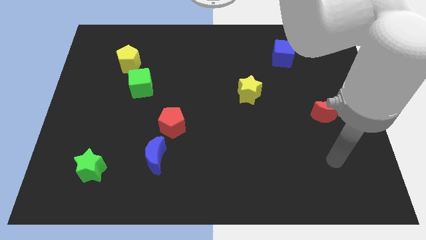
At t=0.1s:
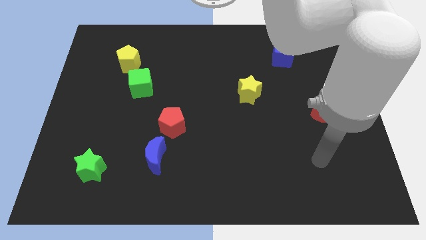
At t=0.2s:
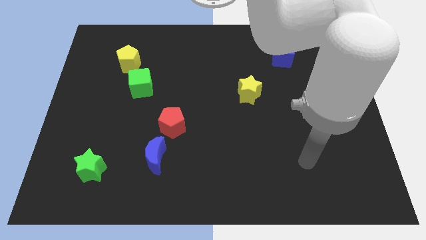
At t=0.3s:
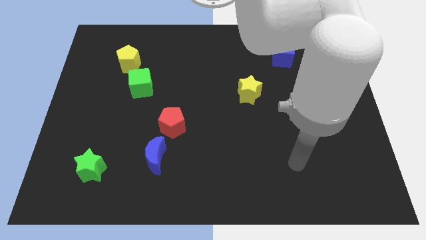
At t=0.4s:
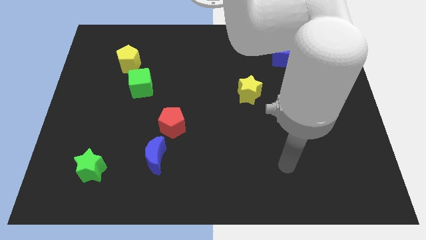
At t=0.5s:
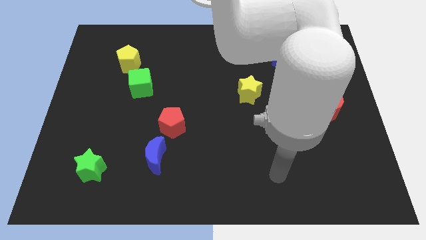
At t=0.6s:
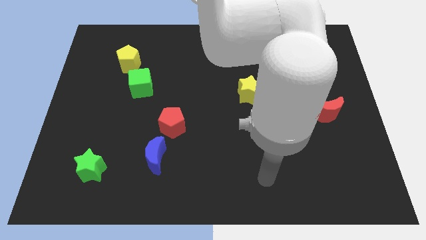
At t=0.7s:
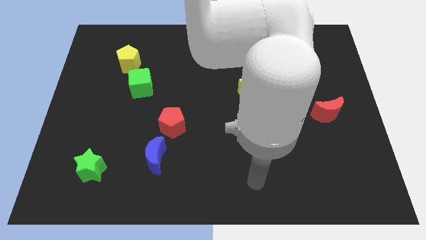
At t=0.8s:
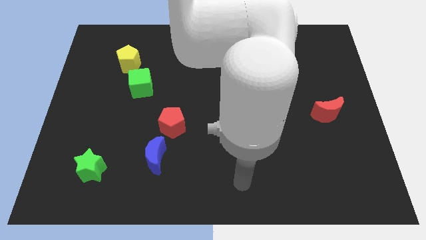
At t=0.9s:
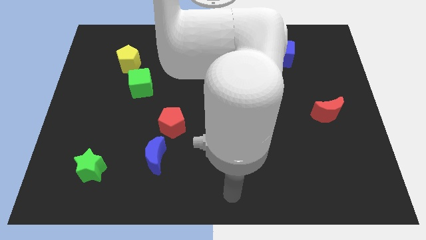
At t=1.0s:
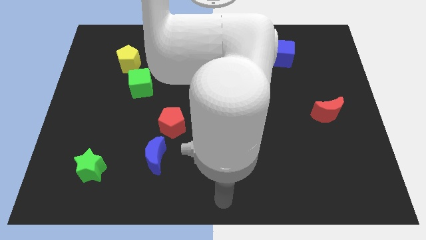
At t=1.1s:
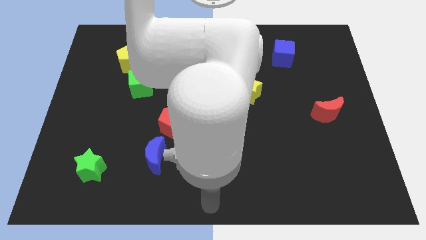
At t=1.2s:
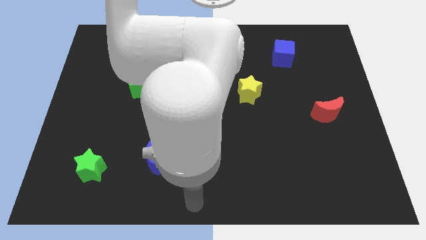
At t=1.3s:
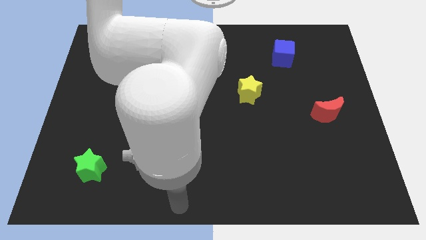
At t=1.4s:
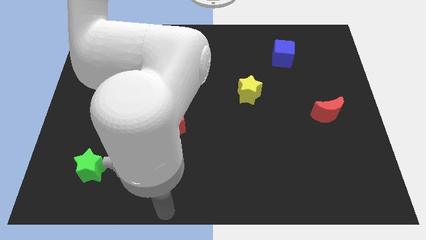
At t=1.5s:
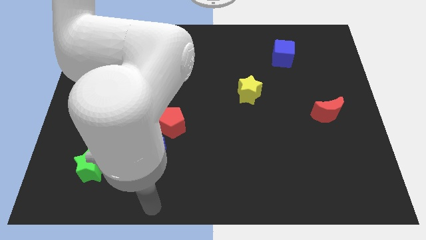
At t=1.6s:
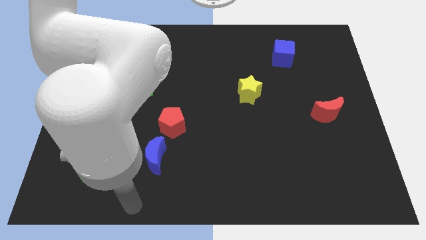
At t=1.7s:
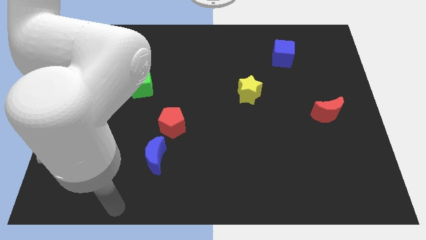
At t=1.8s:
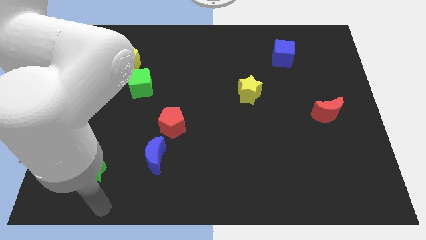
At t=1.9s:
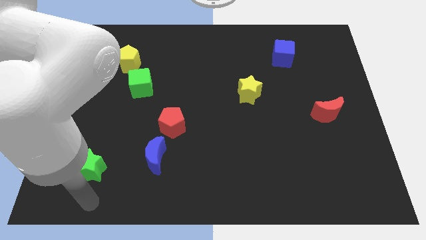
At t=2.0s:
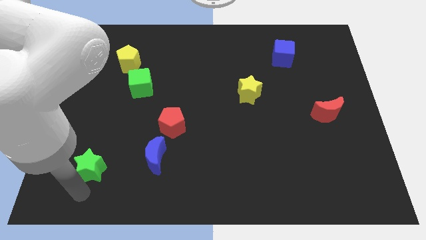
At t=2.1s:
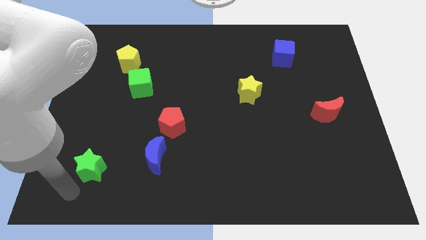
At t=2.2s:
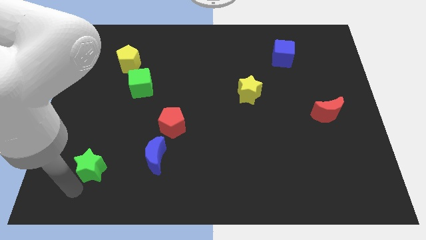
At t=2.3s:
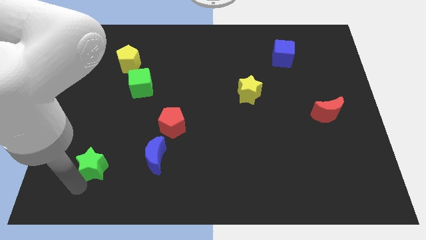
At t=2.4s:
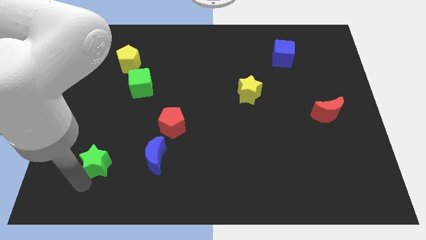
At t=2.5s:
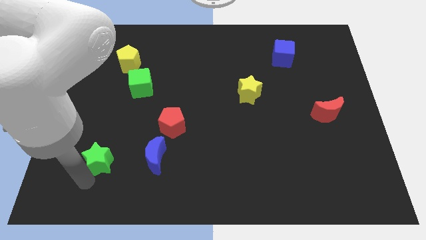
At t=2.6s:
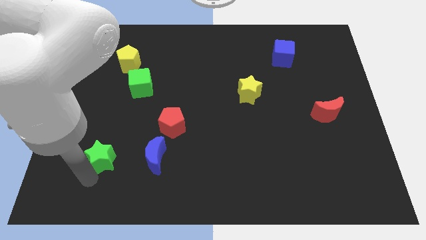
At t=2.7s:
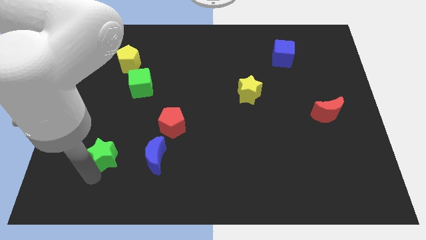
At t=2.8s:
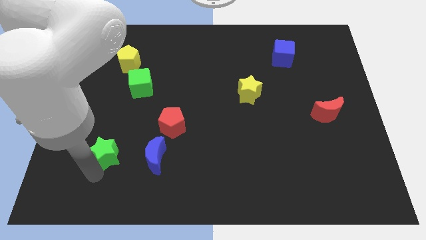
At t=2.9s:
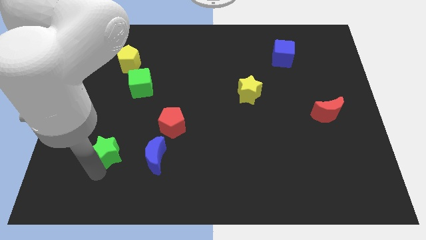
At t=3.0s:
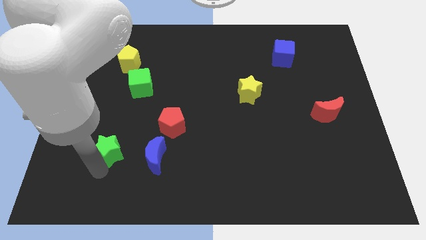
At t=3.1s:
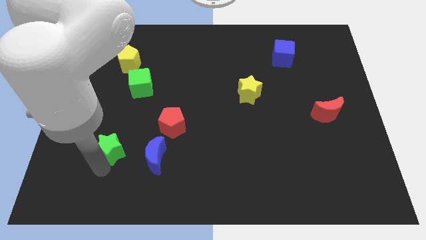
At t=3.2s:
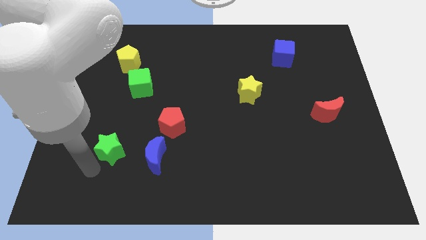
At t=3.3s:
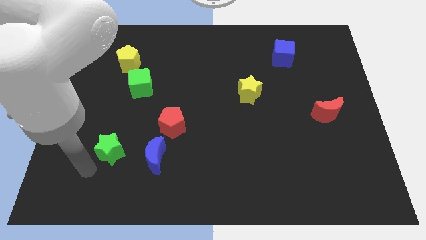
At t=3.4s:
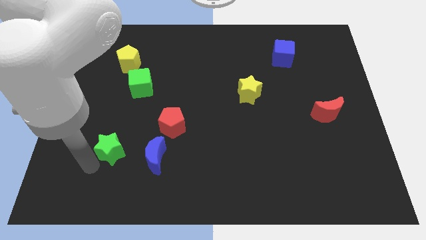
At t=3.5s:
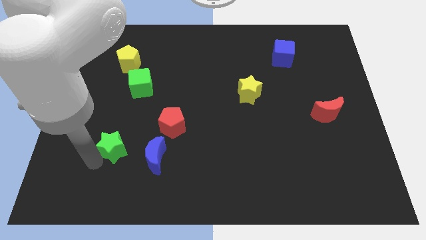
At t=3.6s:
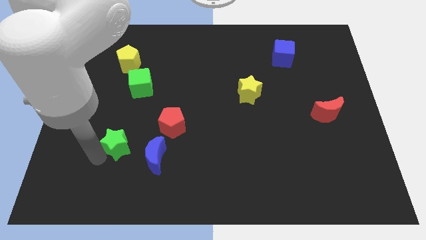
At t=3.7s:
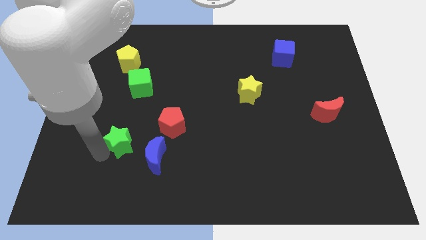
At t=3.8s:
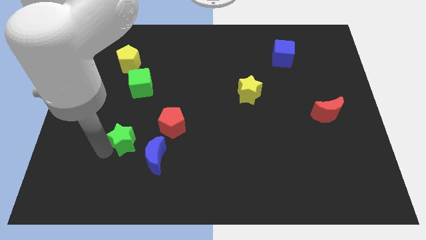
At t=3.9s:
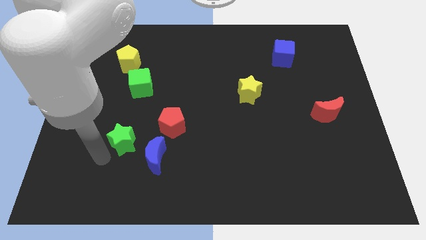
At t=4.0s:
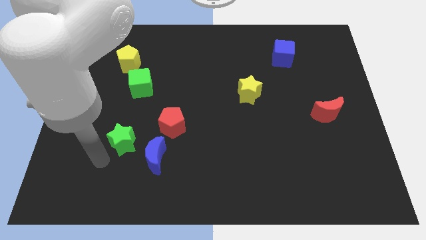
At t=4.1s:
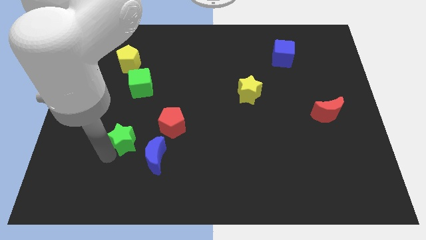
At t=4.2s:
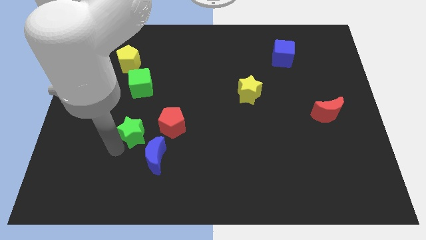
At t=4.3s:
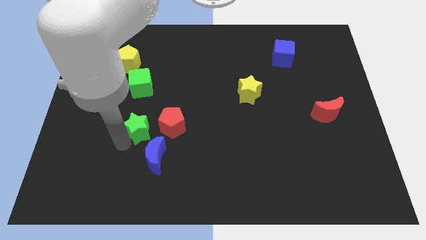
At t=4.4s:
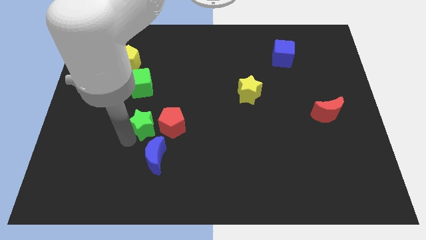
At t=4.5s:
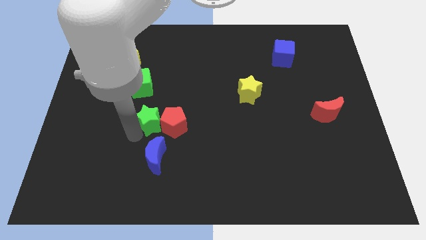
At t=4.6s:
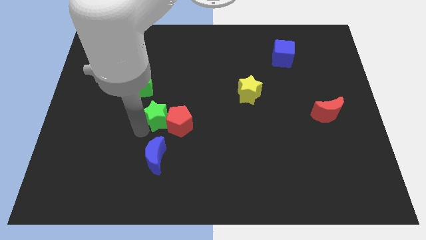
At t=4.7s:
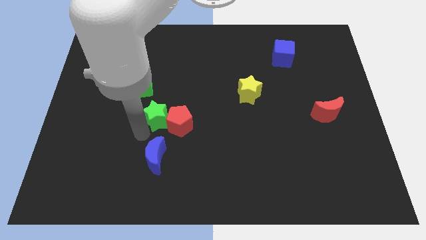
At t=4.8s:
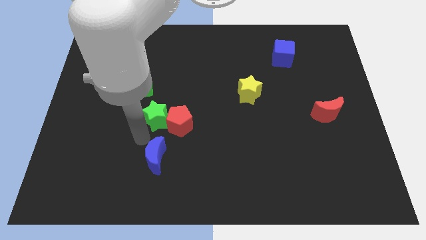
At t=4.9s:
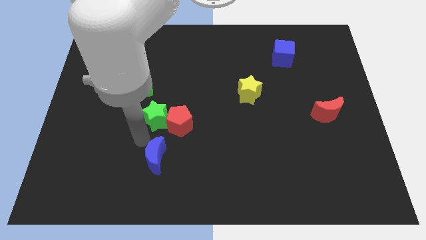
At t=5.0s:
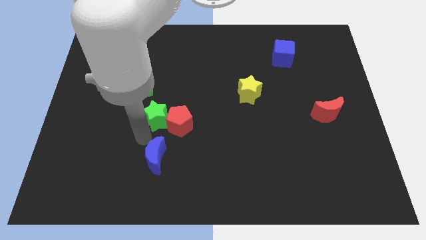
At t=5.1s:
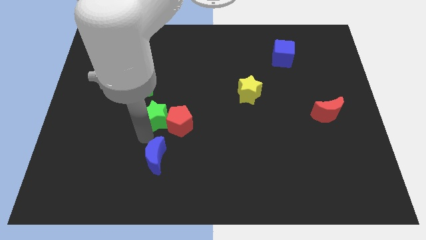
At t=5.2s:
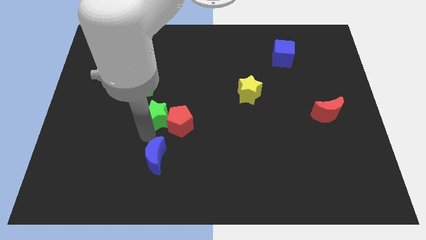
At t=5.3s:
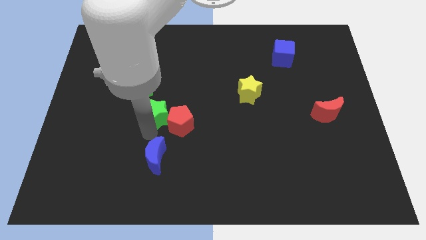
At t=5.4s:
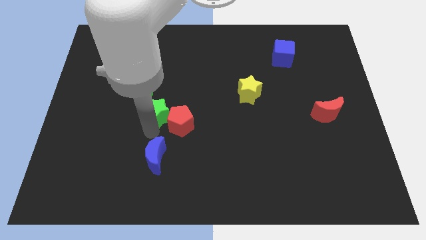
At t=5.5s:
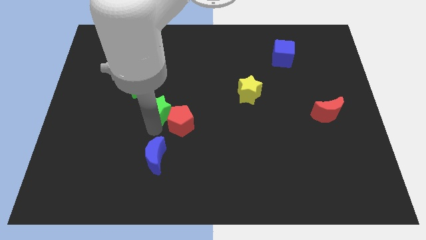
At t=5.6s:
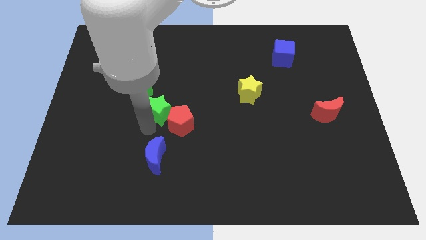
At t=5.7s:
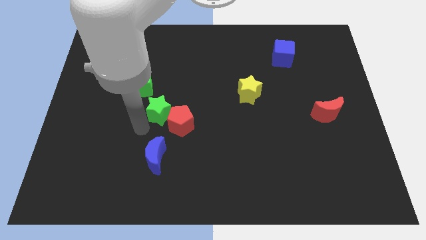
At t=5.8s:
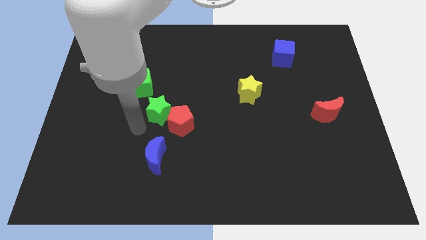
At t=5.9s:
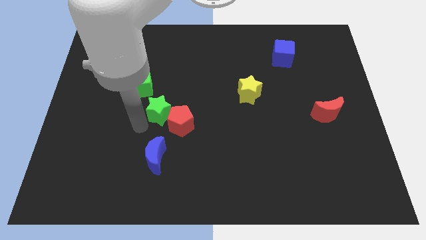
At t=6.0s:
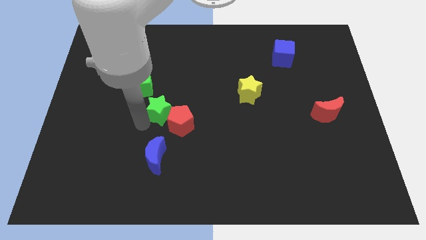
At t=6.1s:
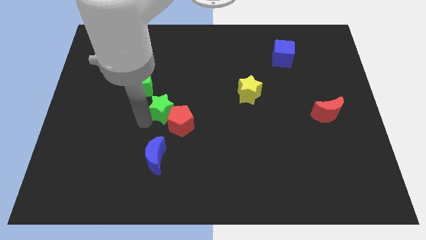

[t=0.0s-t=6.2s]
push the green star up and right diagonally

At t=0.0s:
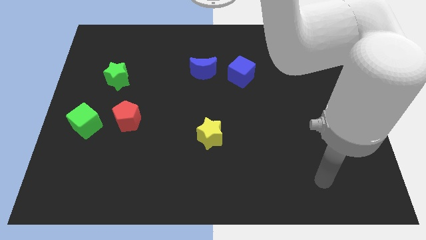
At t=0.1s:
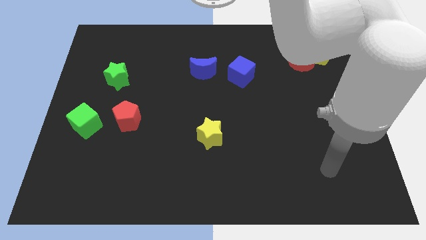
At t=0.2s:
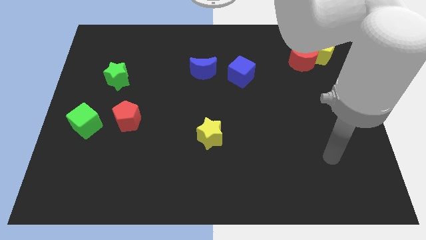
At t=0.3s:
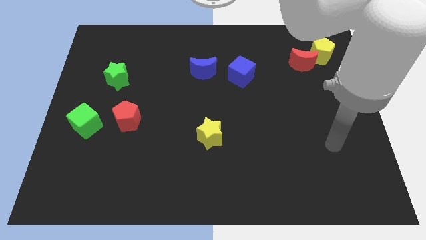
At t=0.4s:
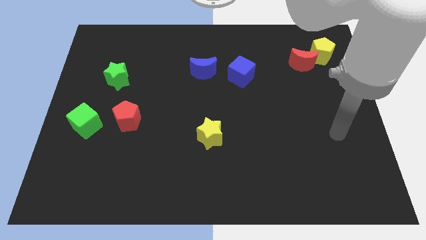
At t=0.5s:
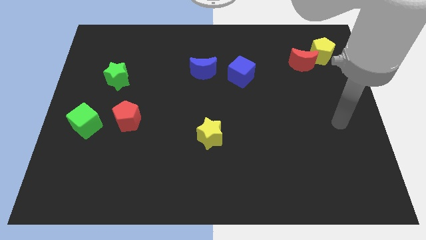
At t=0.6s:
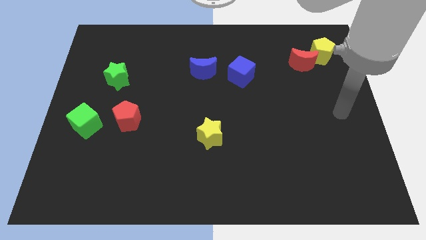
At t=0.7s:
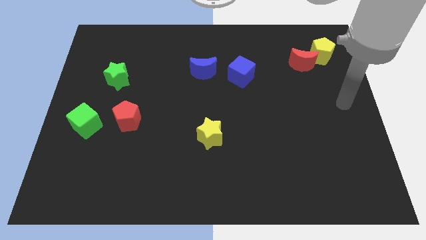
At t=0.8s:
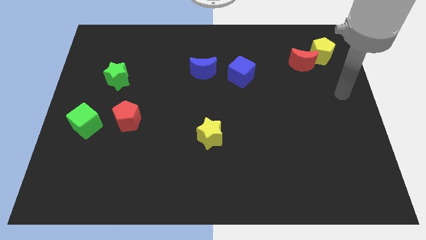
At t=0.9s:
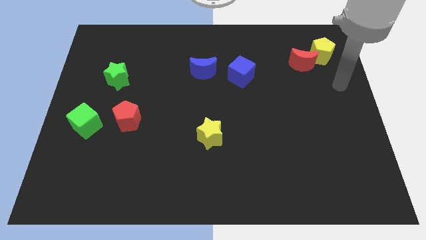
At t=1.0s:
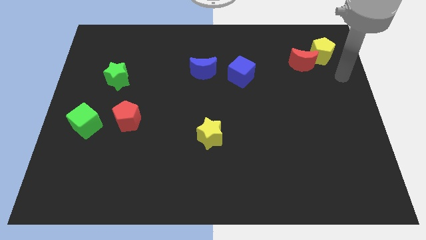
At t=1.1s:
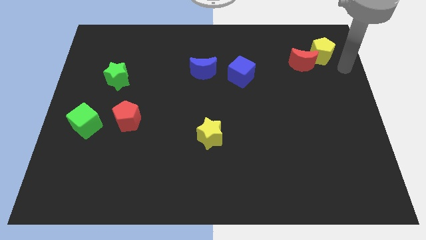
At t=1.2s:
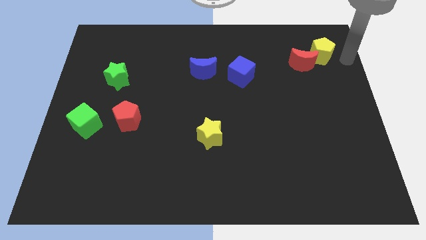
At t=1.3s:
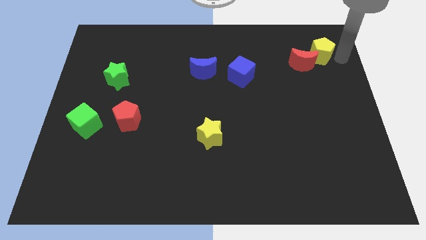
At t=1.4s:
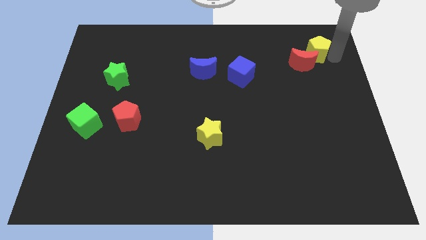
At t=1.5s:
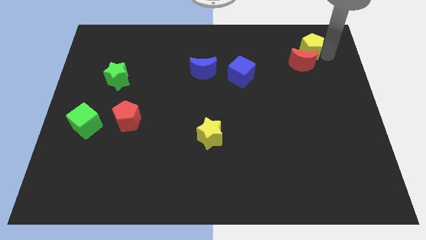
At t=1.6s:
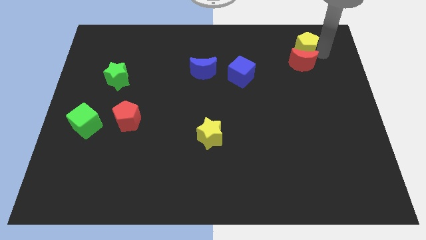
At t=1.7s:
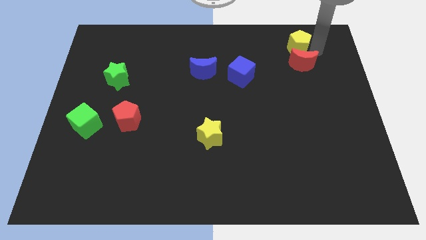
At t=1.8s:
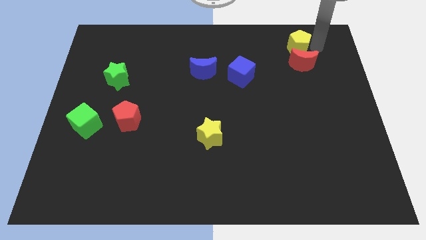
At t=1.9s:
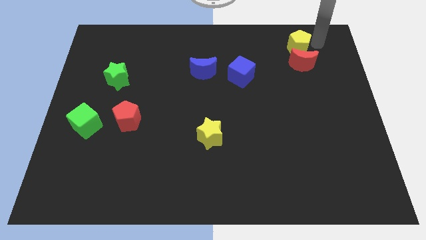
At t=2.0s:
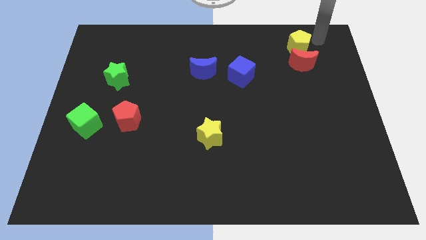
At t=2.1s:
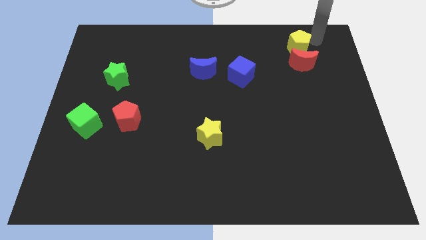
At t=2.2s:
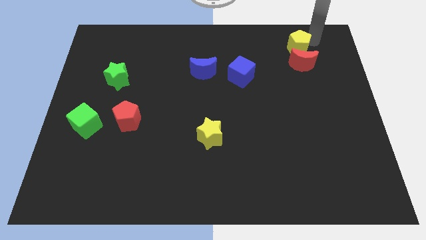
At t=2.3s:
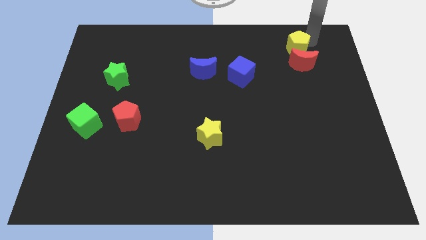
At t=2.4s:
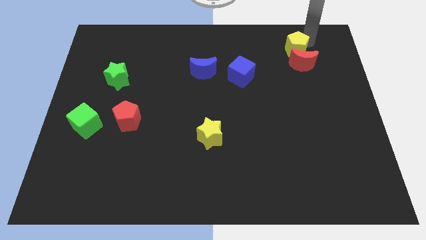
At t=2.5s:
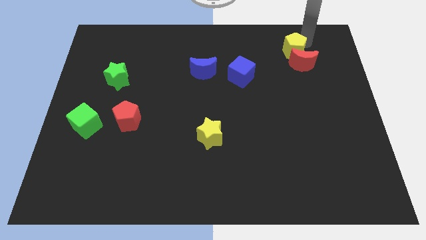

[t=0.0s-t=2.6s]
slightly slide the yellow pentagon left
